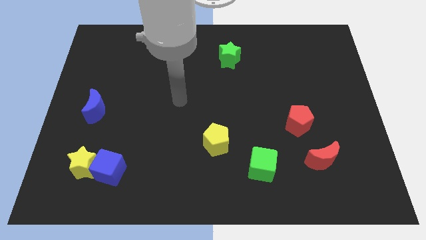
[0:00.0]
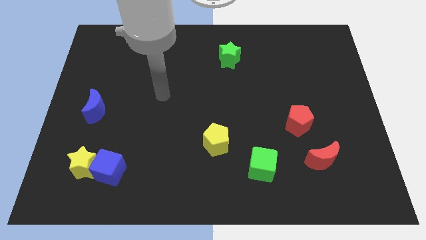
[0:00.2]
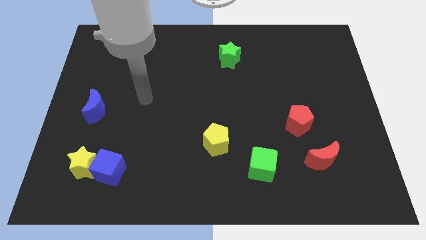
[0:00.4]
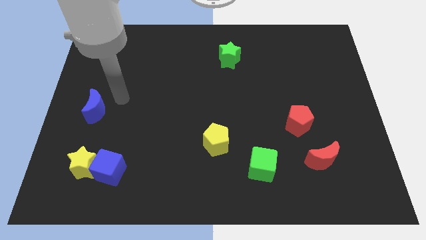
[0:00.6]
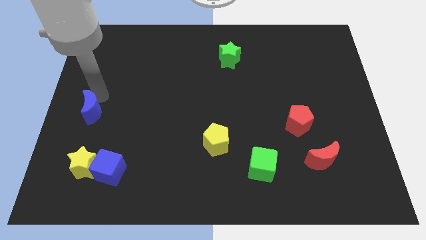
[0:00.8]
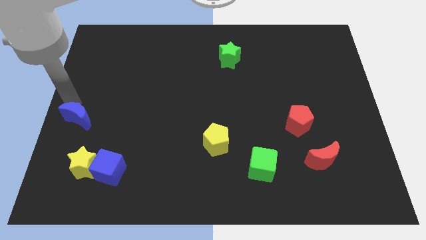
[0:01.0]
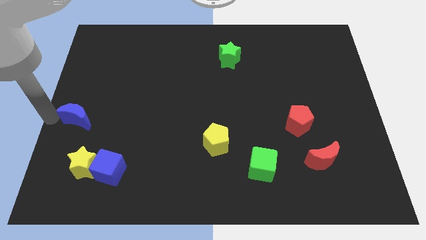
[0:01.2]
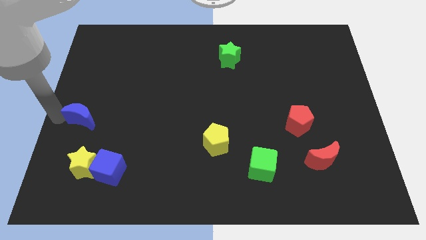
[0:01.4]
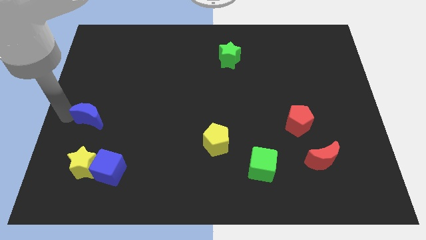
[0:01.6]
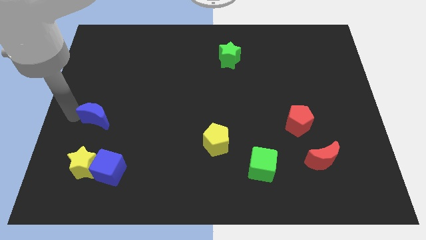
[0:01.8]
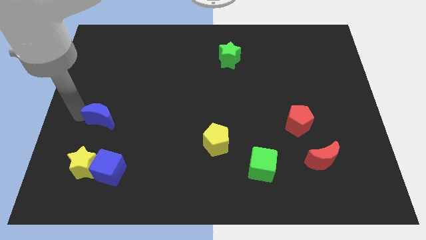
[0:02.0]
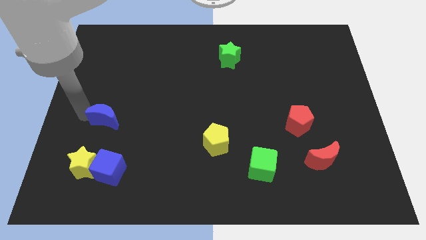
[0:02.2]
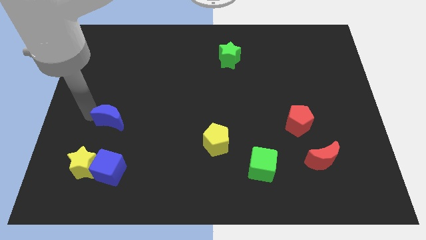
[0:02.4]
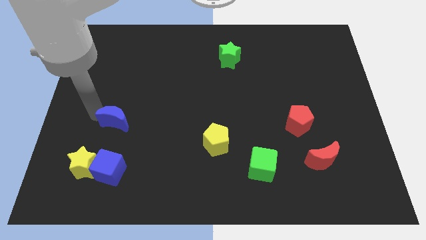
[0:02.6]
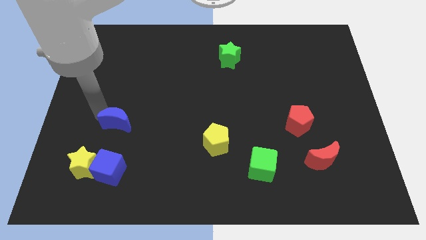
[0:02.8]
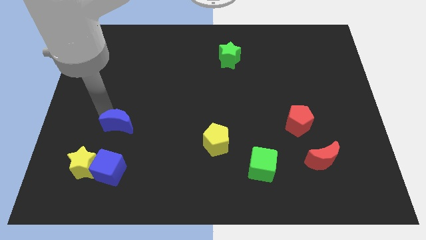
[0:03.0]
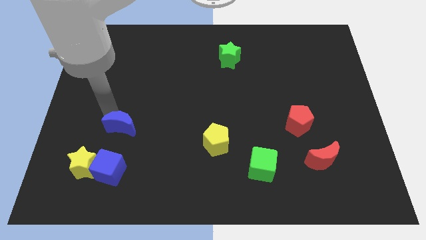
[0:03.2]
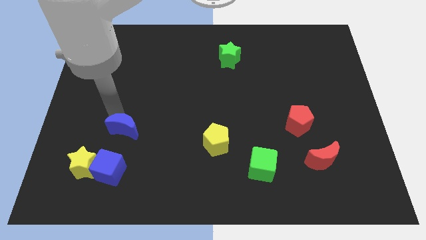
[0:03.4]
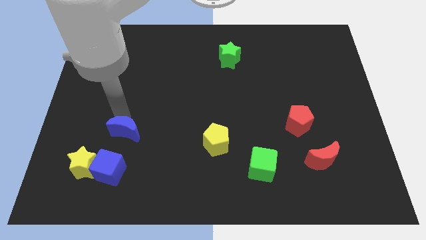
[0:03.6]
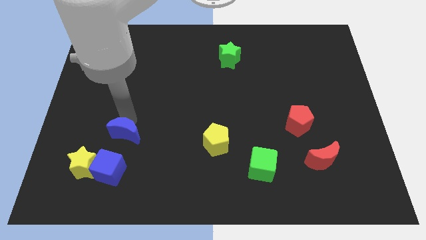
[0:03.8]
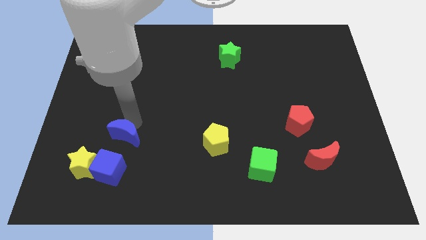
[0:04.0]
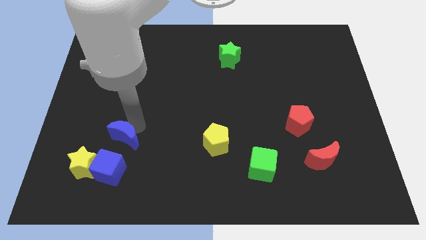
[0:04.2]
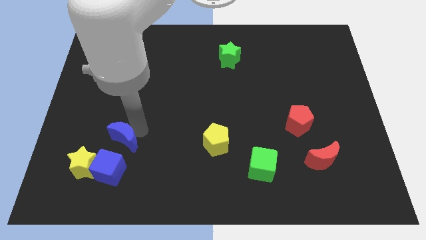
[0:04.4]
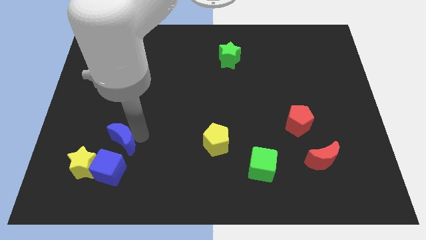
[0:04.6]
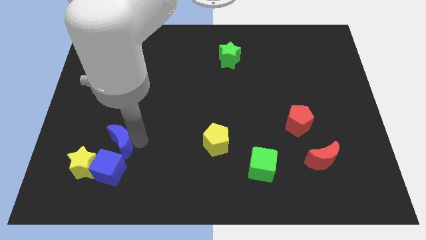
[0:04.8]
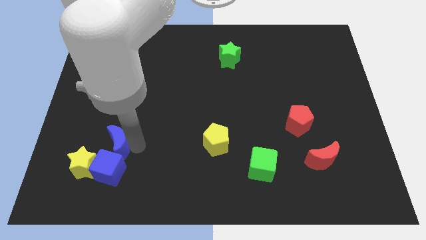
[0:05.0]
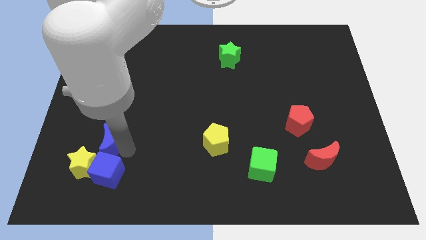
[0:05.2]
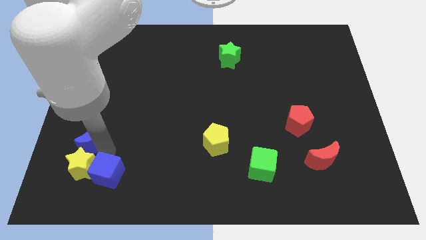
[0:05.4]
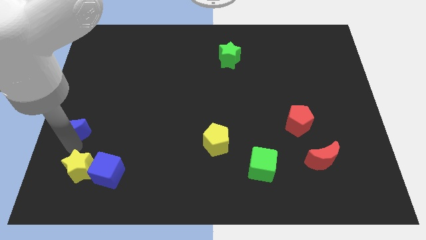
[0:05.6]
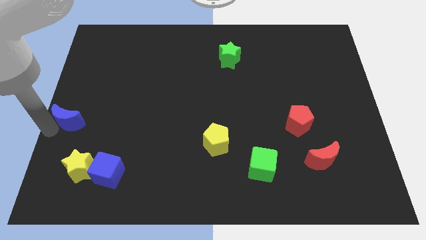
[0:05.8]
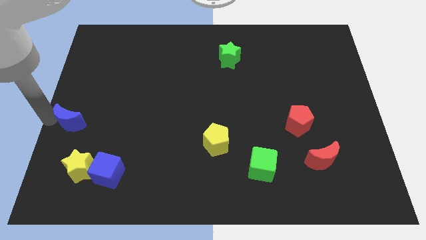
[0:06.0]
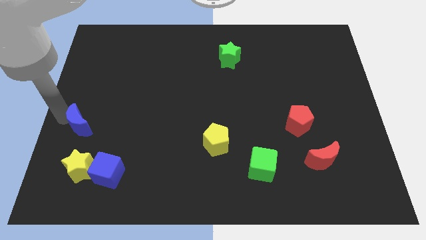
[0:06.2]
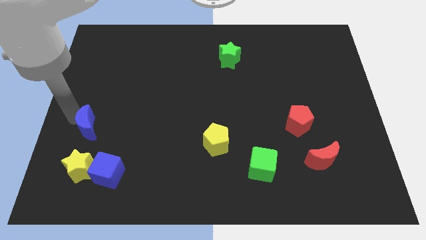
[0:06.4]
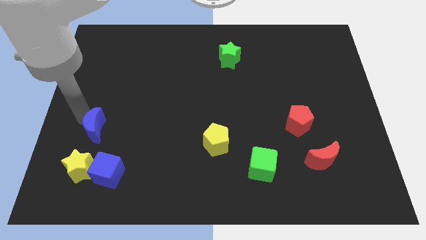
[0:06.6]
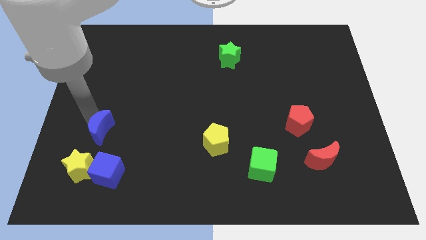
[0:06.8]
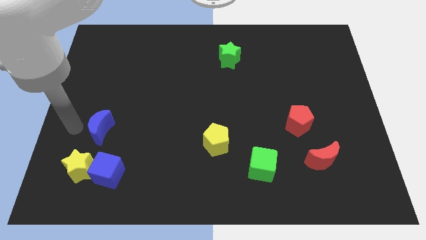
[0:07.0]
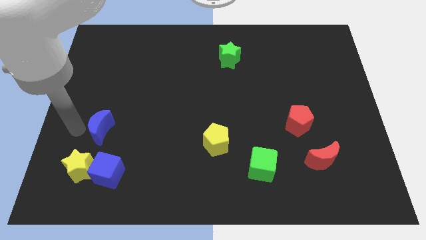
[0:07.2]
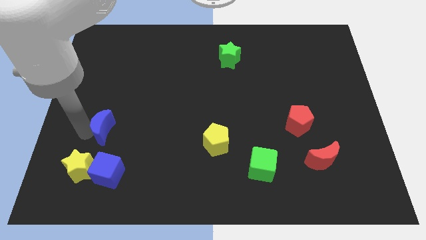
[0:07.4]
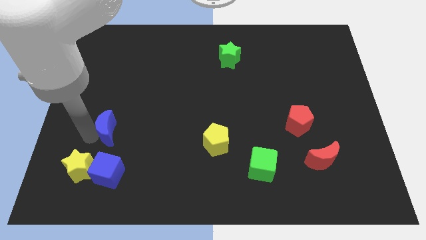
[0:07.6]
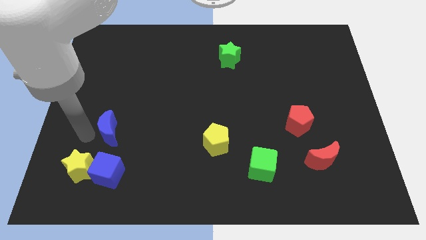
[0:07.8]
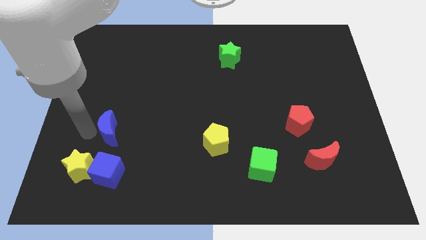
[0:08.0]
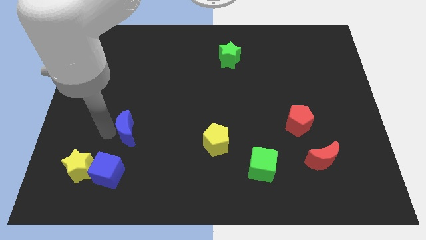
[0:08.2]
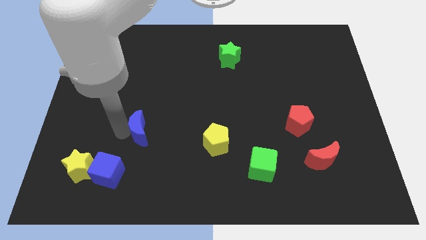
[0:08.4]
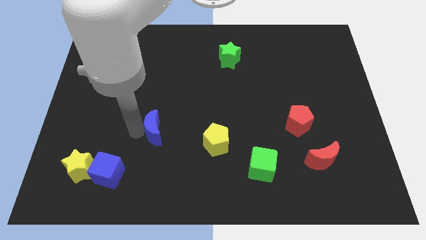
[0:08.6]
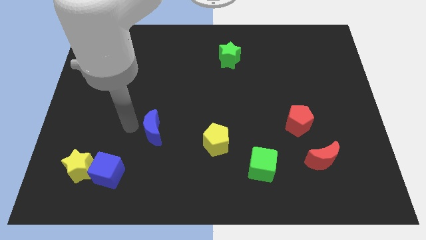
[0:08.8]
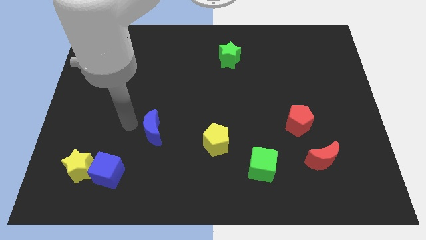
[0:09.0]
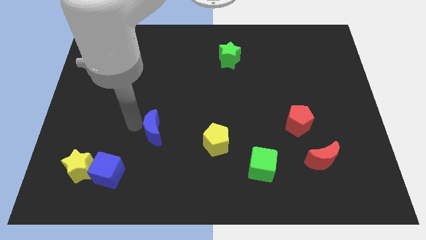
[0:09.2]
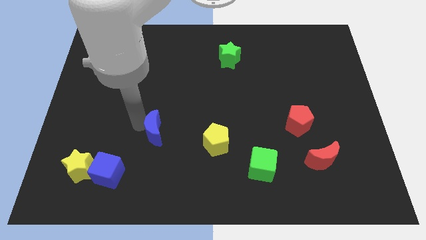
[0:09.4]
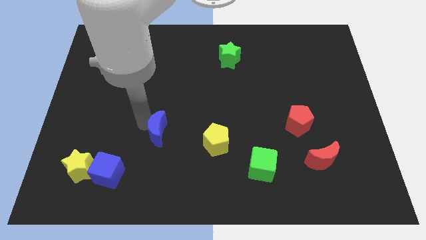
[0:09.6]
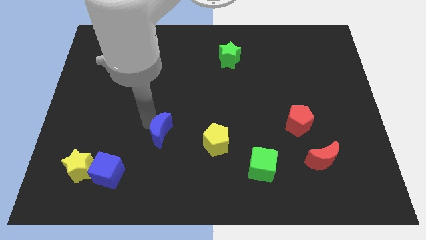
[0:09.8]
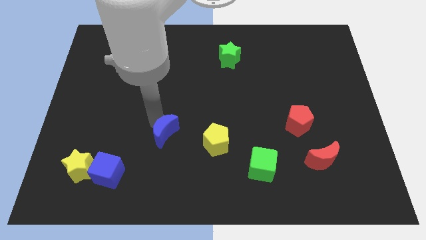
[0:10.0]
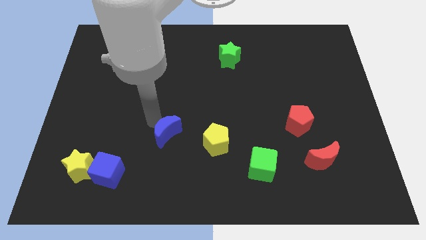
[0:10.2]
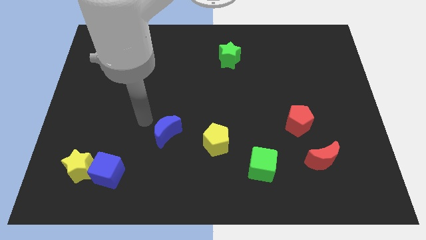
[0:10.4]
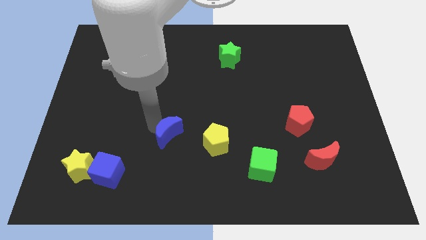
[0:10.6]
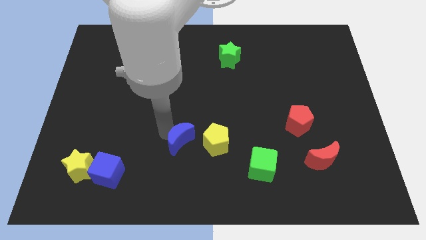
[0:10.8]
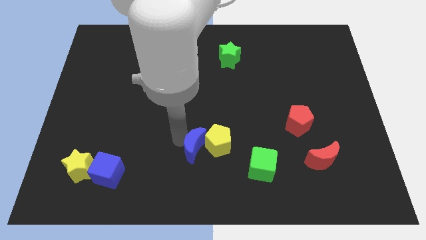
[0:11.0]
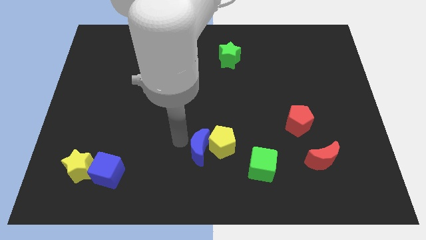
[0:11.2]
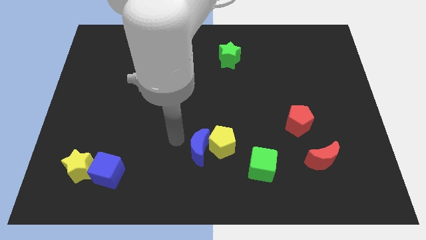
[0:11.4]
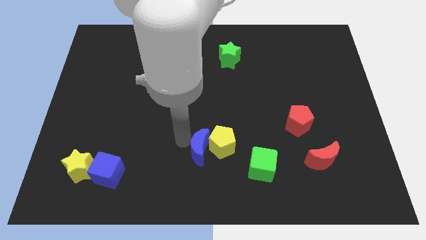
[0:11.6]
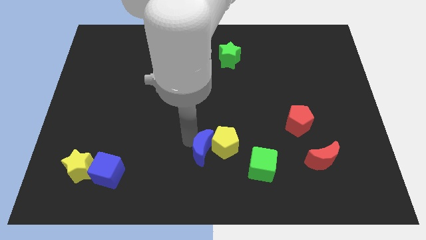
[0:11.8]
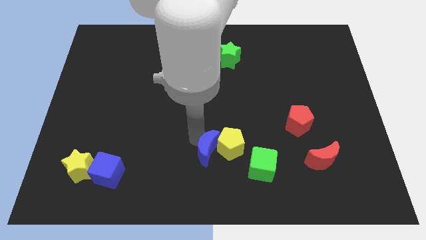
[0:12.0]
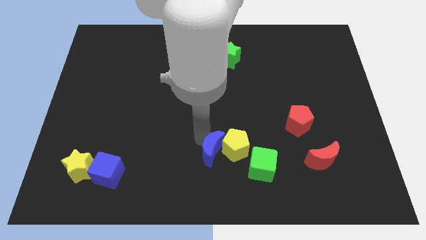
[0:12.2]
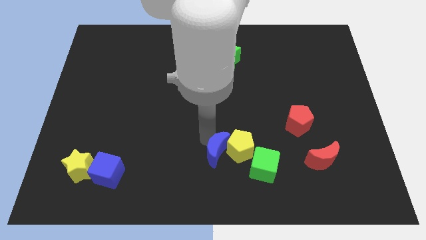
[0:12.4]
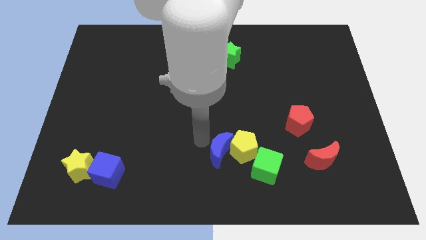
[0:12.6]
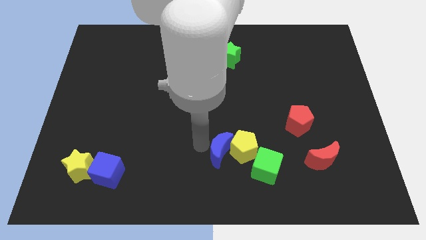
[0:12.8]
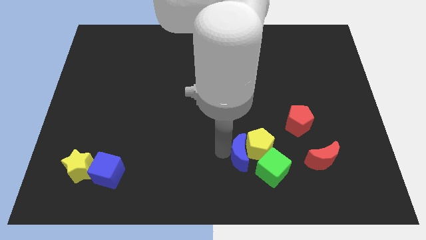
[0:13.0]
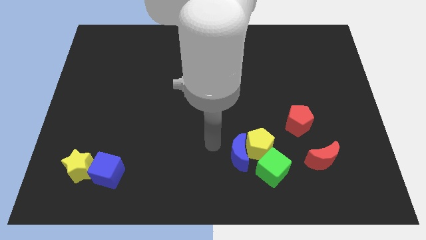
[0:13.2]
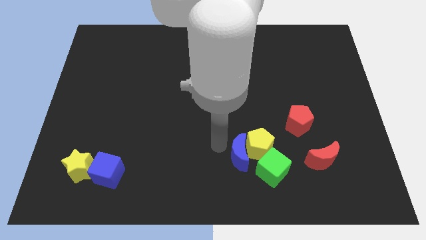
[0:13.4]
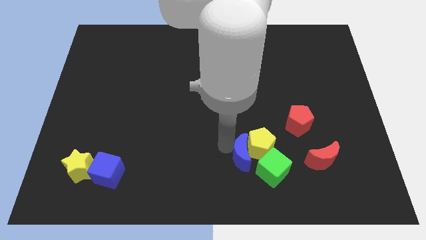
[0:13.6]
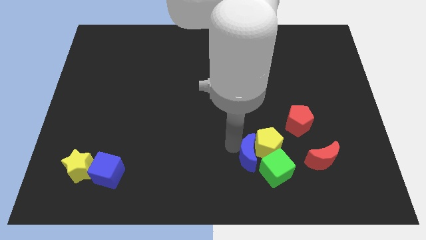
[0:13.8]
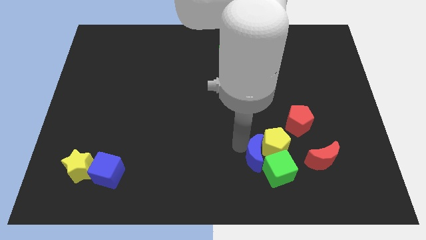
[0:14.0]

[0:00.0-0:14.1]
move the blue moon close to the green cube
